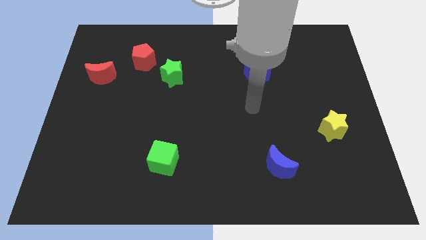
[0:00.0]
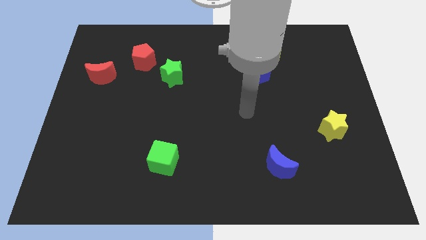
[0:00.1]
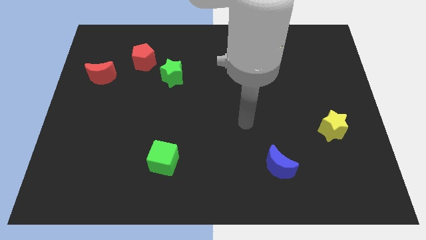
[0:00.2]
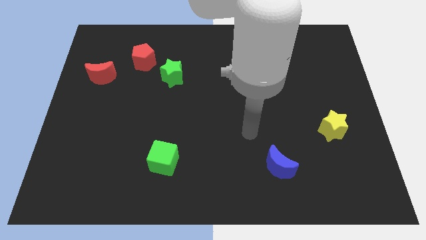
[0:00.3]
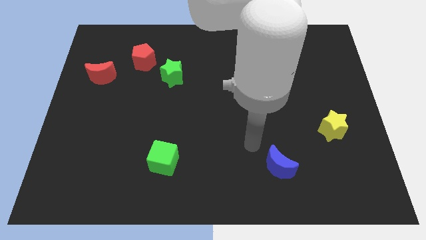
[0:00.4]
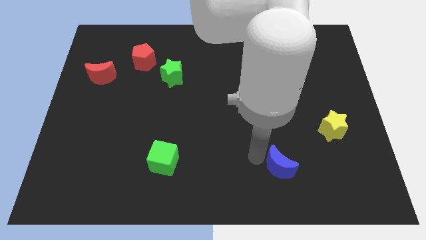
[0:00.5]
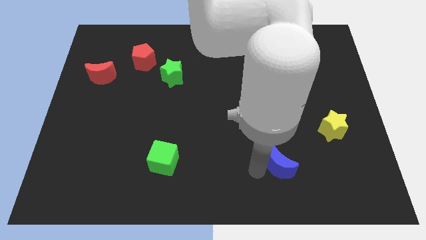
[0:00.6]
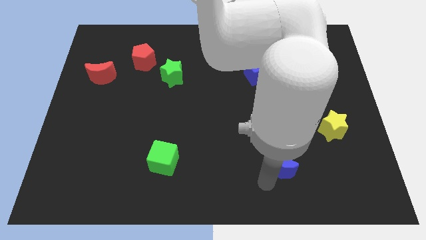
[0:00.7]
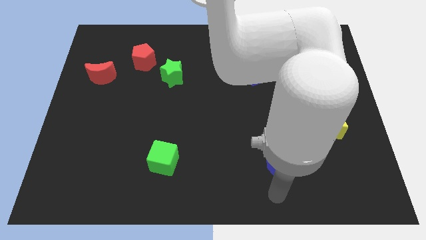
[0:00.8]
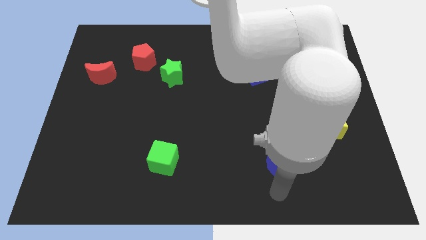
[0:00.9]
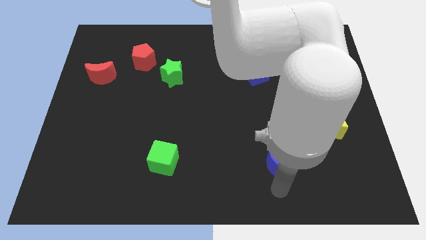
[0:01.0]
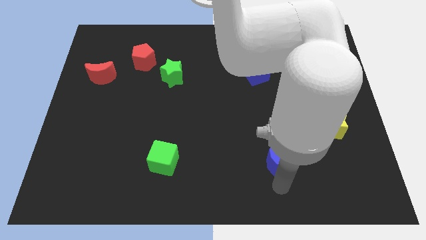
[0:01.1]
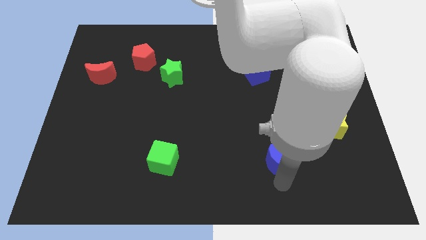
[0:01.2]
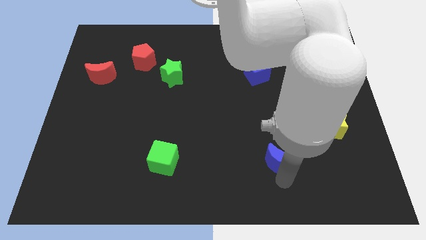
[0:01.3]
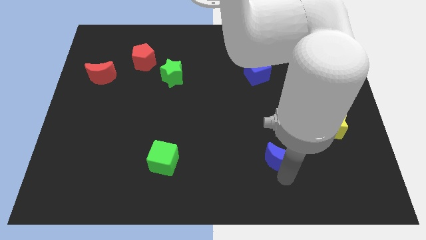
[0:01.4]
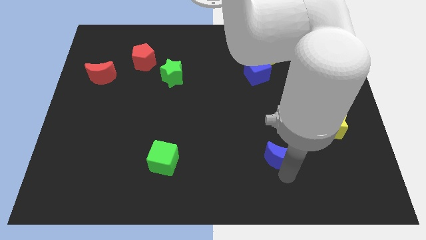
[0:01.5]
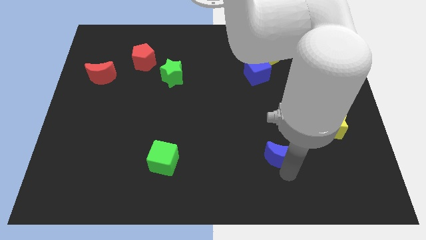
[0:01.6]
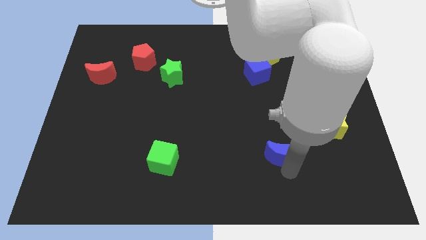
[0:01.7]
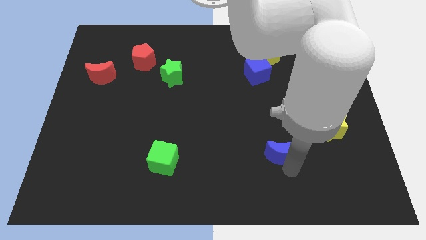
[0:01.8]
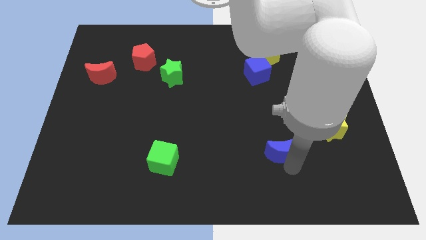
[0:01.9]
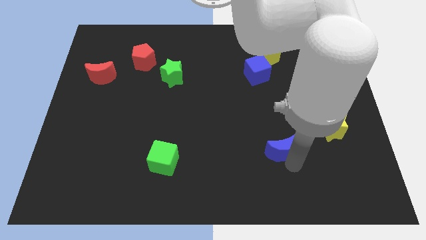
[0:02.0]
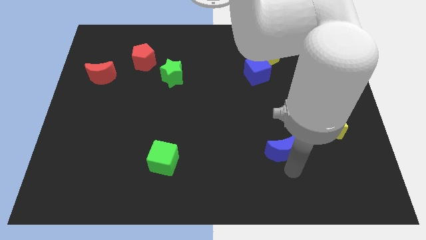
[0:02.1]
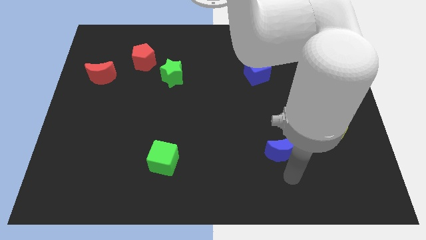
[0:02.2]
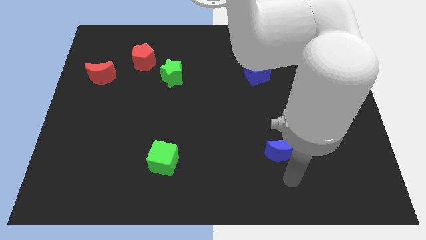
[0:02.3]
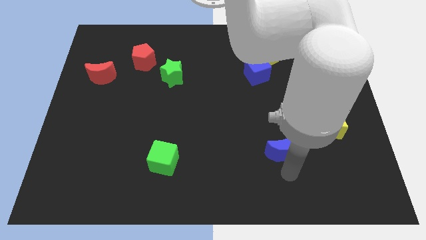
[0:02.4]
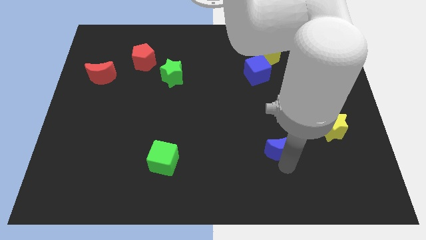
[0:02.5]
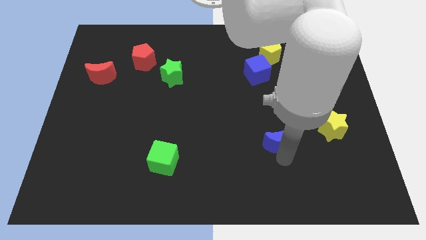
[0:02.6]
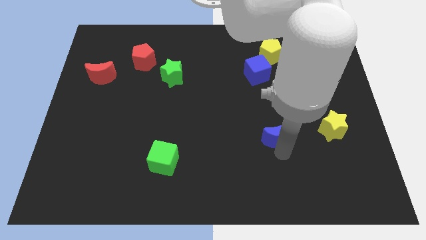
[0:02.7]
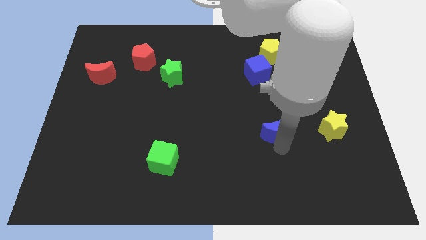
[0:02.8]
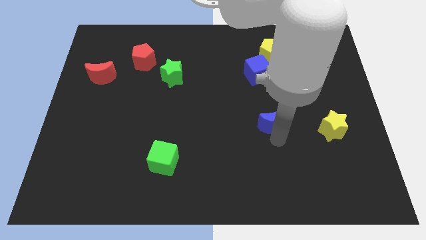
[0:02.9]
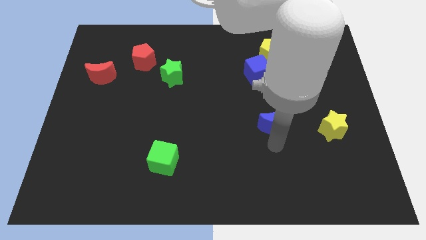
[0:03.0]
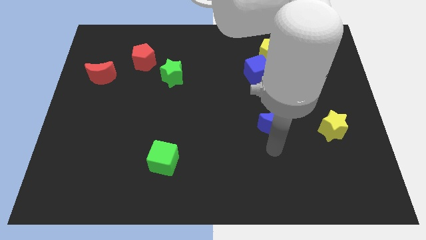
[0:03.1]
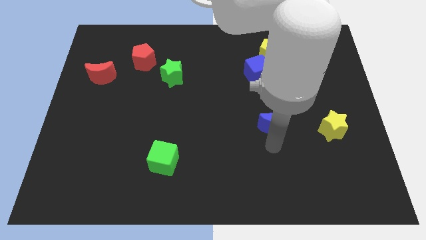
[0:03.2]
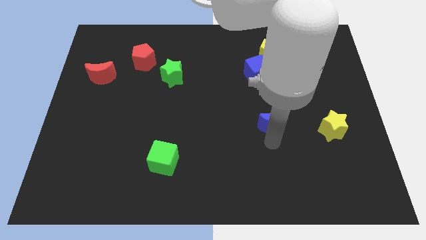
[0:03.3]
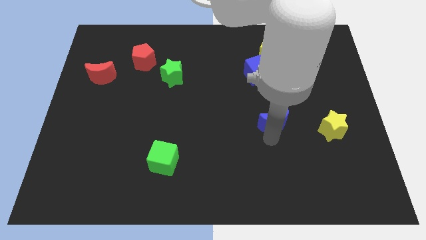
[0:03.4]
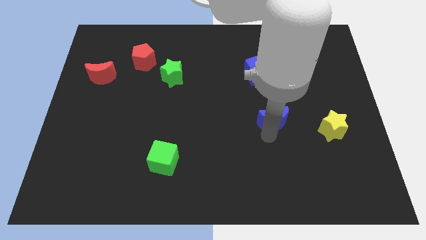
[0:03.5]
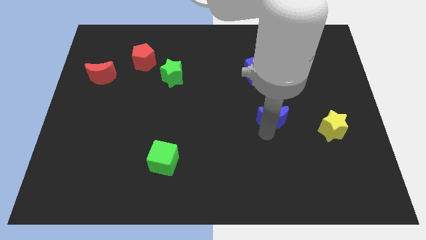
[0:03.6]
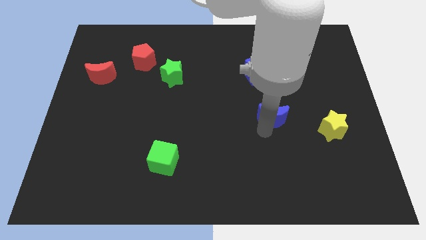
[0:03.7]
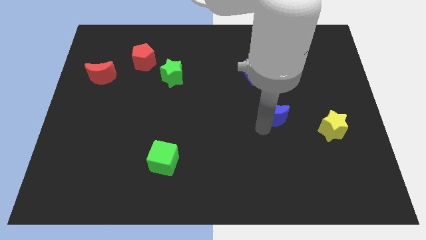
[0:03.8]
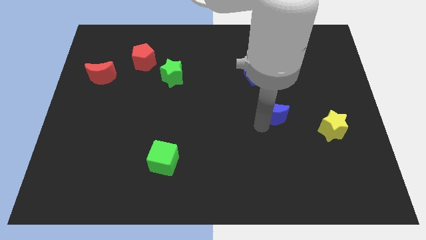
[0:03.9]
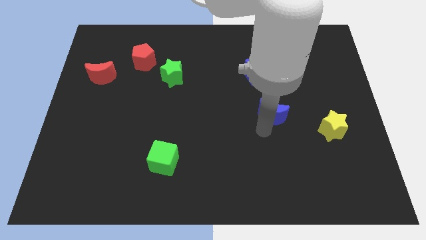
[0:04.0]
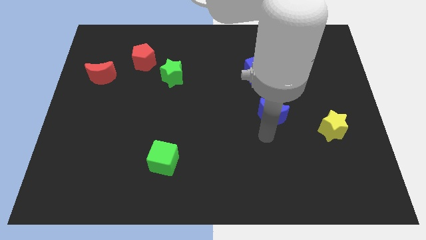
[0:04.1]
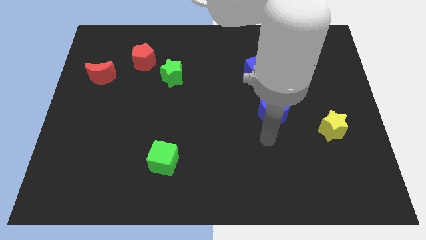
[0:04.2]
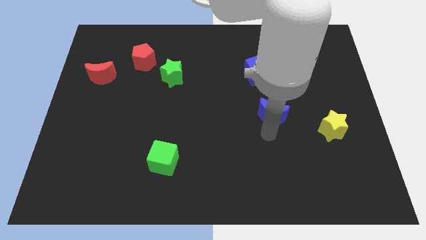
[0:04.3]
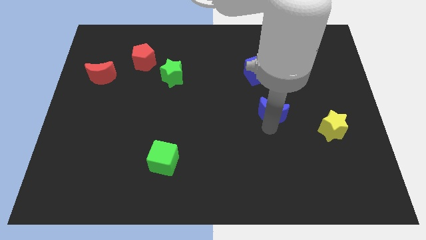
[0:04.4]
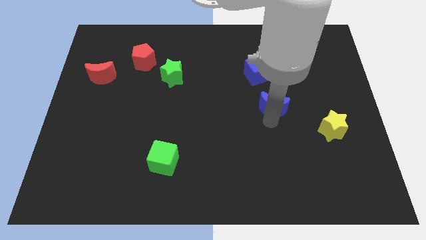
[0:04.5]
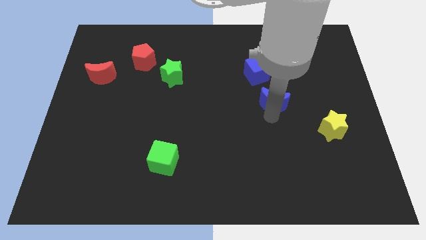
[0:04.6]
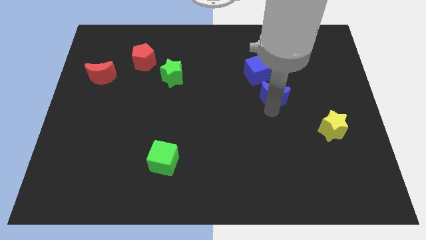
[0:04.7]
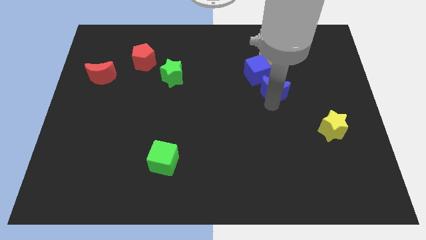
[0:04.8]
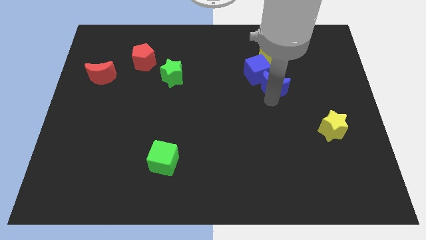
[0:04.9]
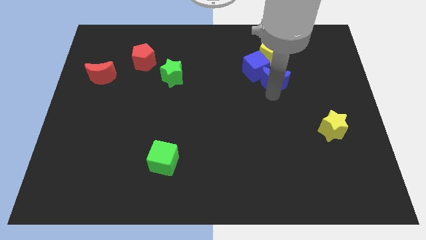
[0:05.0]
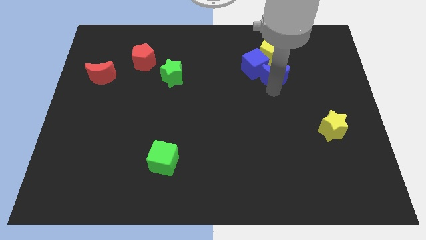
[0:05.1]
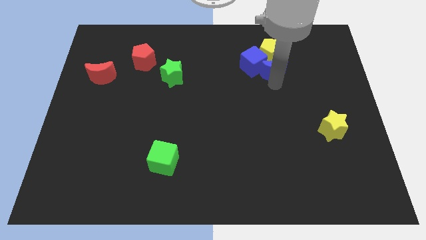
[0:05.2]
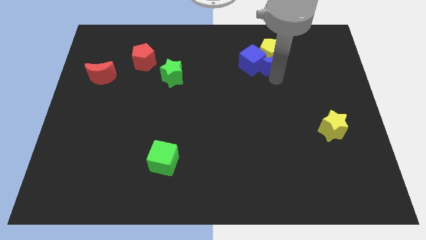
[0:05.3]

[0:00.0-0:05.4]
move the blue moon to the yellow pentagon
